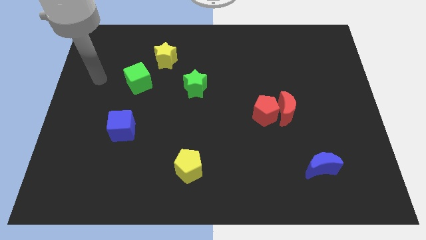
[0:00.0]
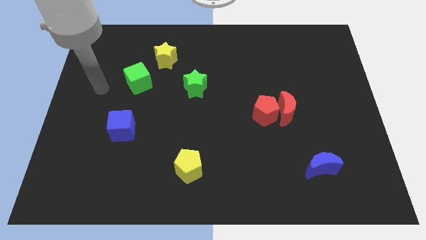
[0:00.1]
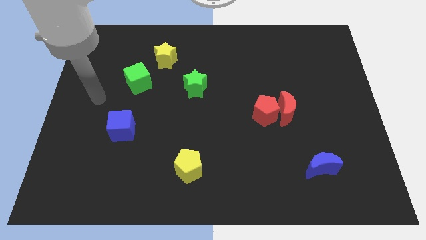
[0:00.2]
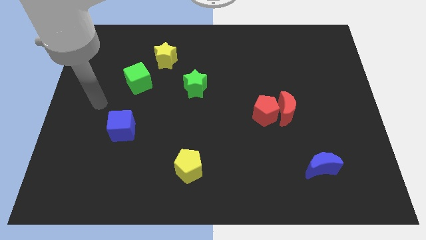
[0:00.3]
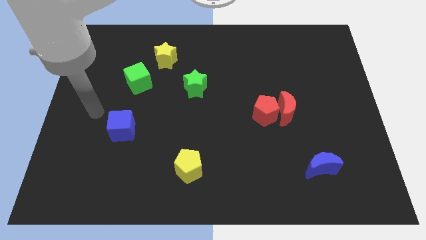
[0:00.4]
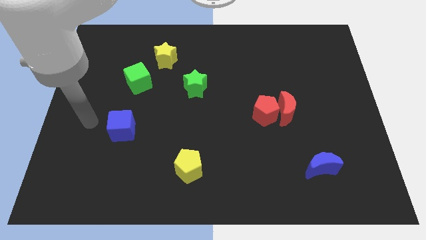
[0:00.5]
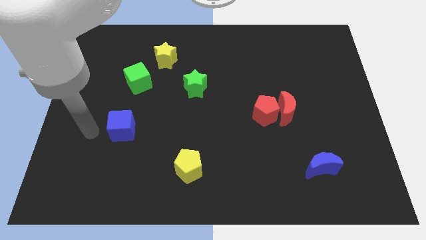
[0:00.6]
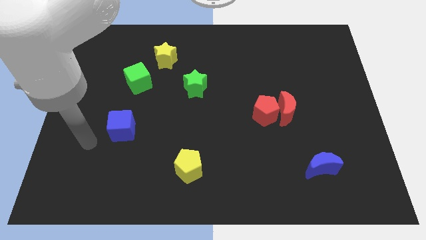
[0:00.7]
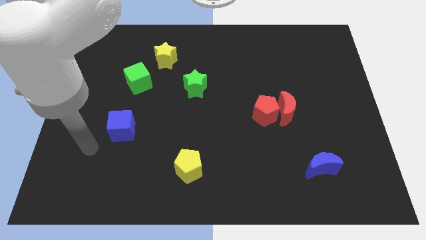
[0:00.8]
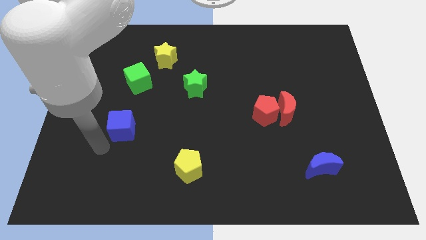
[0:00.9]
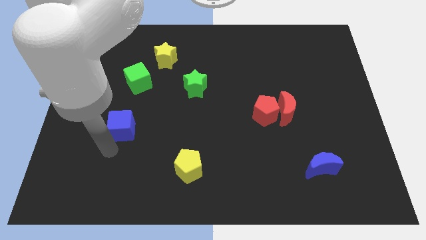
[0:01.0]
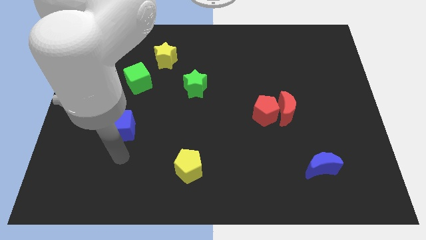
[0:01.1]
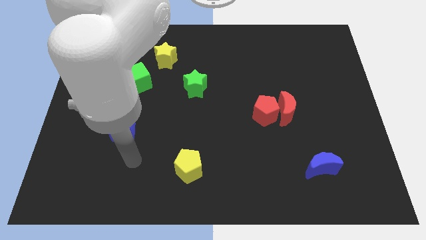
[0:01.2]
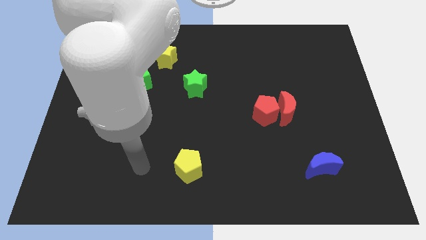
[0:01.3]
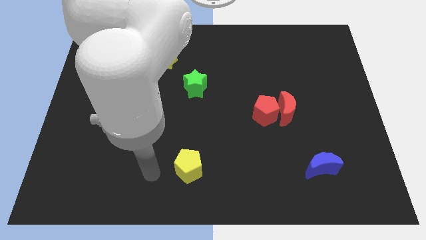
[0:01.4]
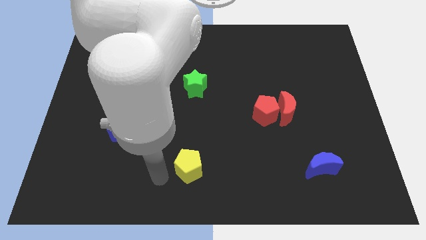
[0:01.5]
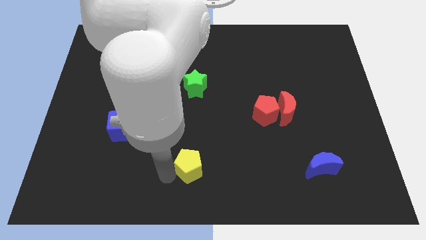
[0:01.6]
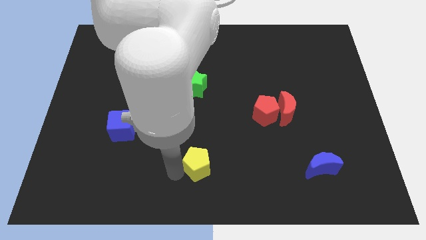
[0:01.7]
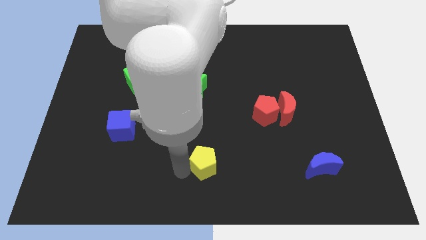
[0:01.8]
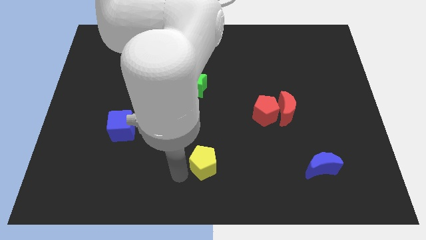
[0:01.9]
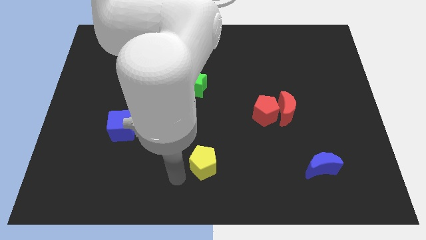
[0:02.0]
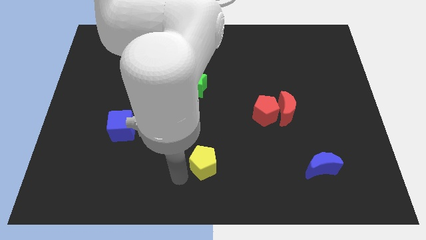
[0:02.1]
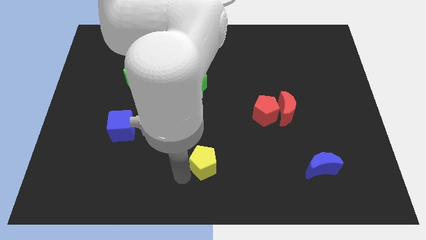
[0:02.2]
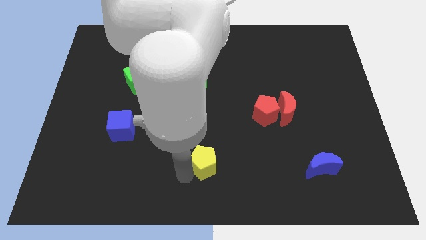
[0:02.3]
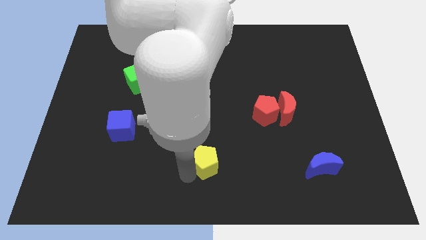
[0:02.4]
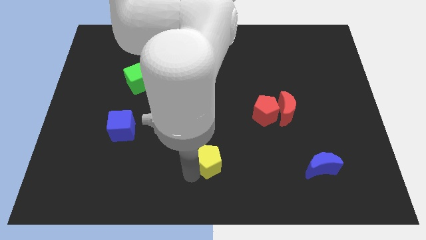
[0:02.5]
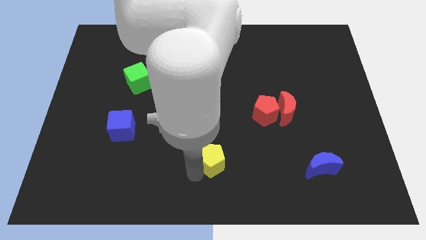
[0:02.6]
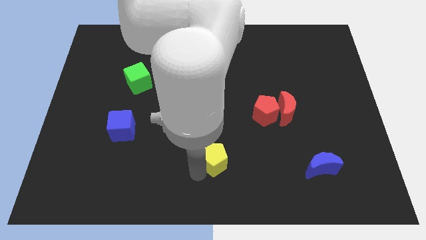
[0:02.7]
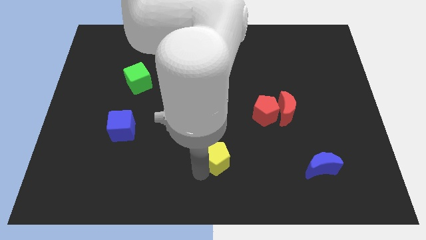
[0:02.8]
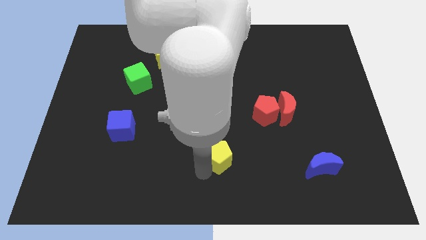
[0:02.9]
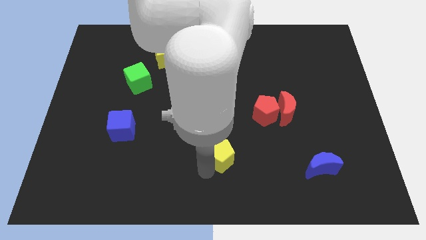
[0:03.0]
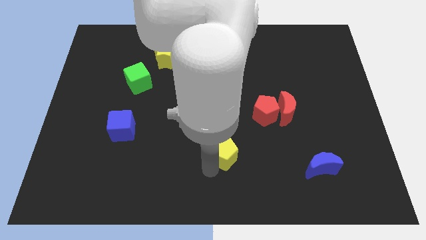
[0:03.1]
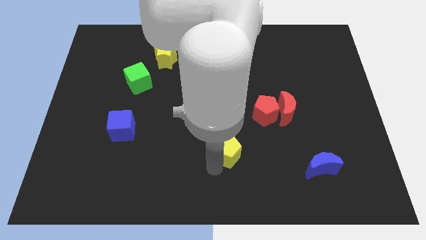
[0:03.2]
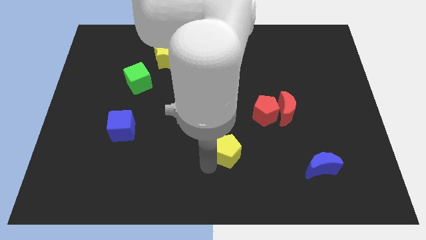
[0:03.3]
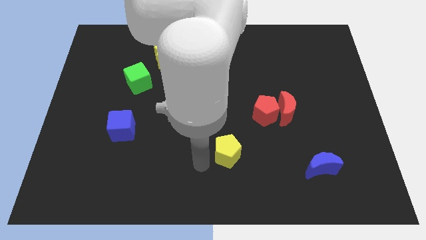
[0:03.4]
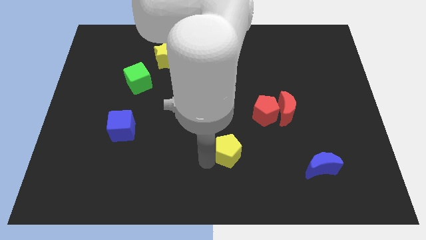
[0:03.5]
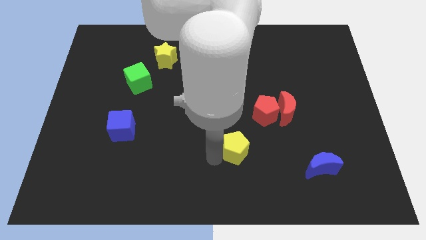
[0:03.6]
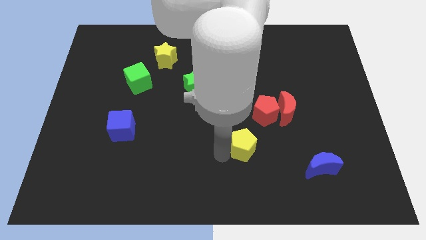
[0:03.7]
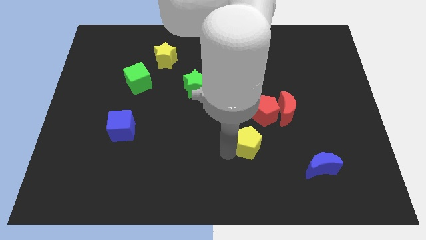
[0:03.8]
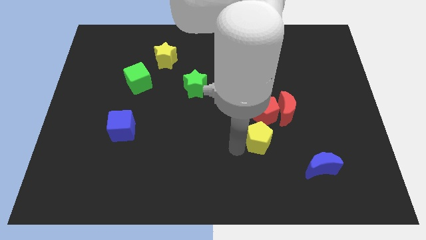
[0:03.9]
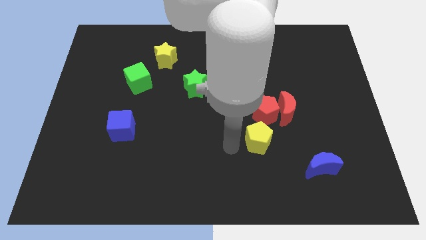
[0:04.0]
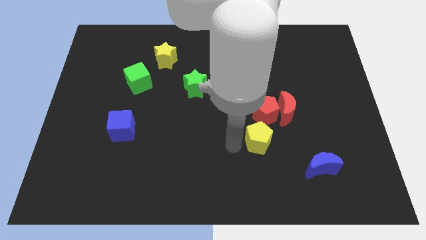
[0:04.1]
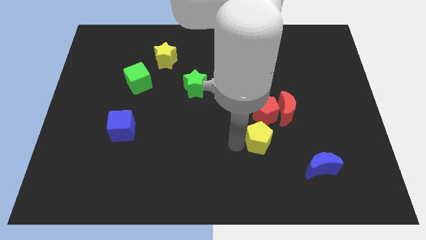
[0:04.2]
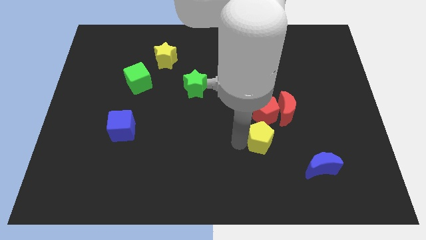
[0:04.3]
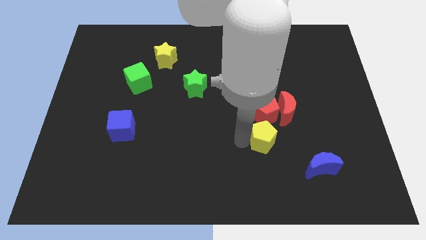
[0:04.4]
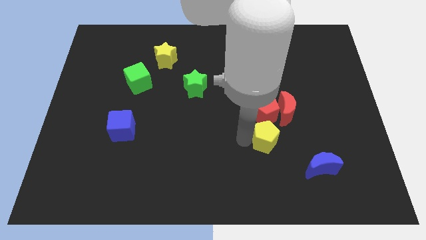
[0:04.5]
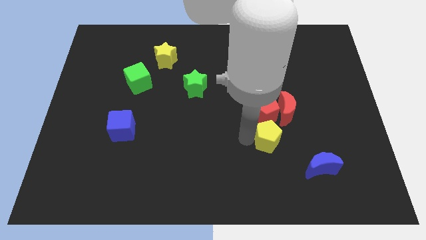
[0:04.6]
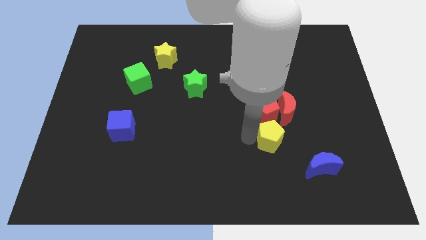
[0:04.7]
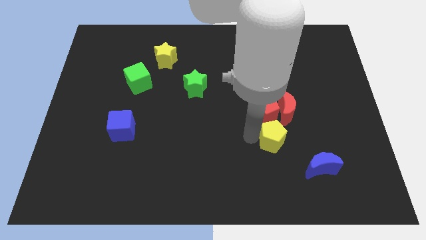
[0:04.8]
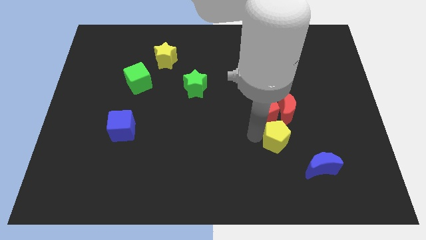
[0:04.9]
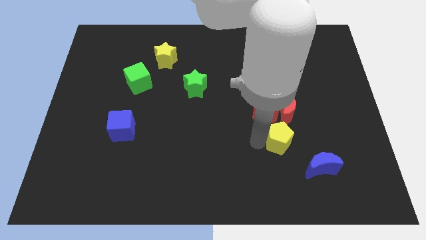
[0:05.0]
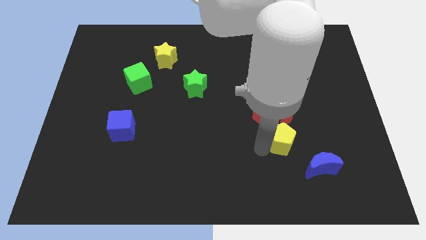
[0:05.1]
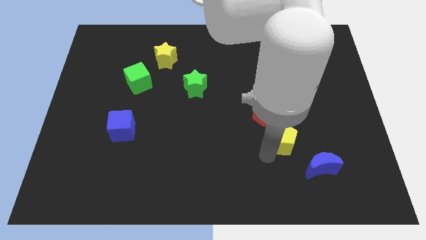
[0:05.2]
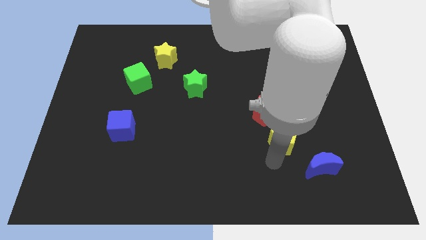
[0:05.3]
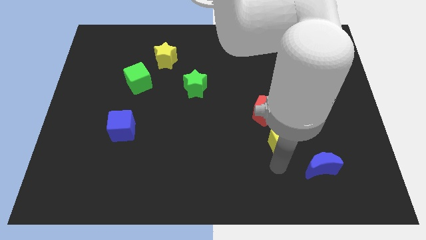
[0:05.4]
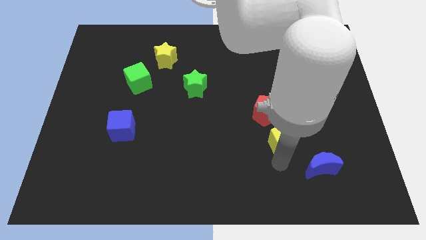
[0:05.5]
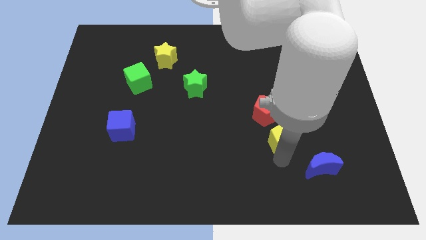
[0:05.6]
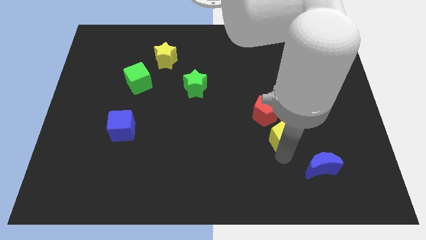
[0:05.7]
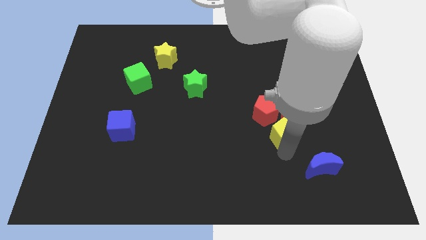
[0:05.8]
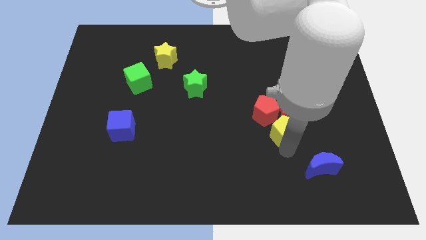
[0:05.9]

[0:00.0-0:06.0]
move the yellow pentagon close to the red moon

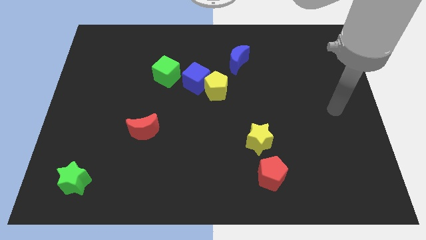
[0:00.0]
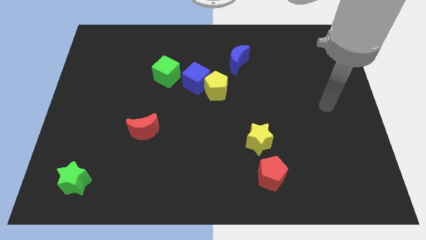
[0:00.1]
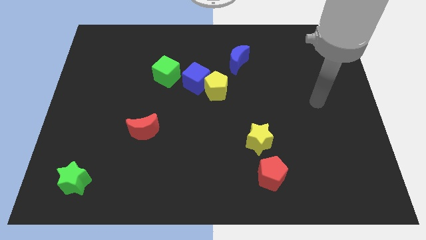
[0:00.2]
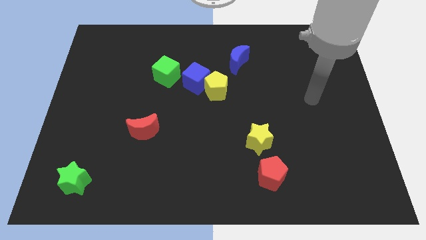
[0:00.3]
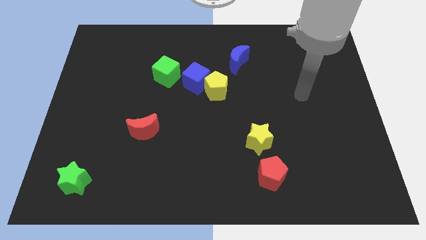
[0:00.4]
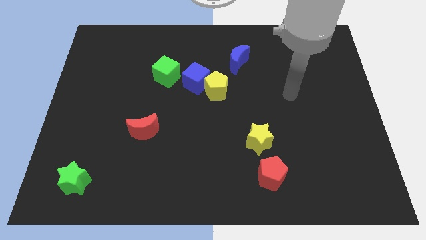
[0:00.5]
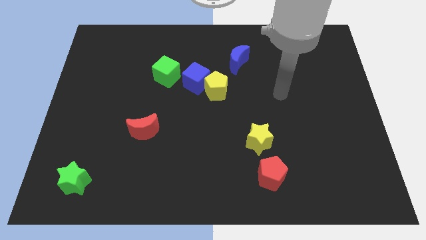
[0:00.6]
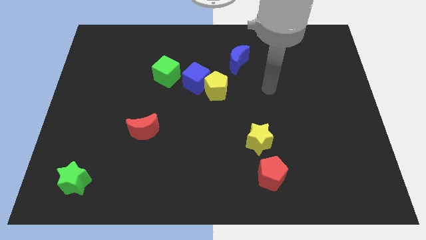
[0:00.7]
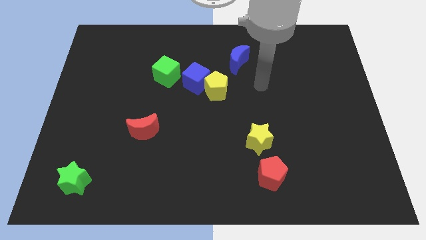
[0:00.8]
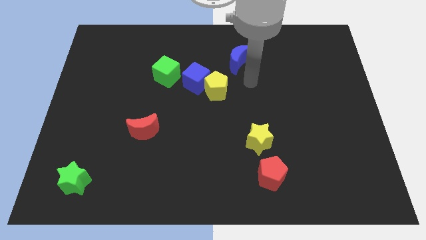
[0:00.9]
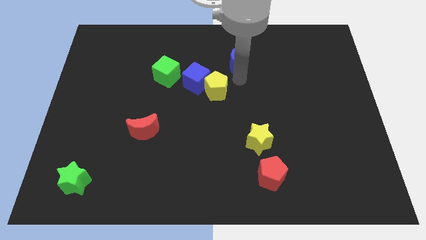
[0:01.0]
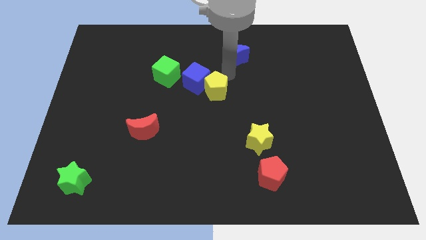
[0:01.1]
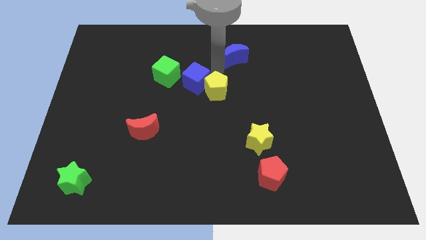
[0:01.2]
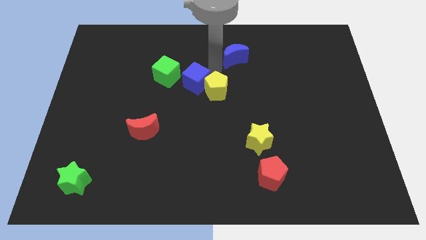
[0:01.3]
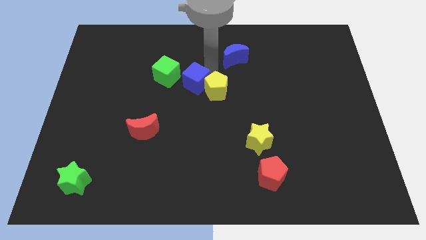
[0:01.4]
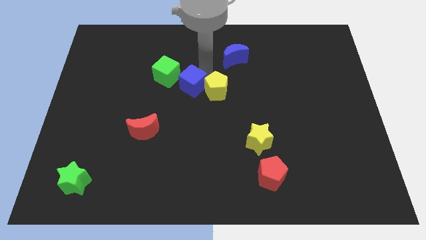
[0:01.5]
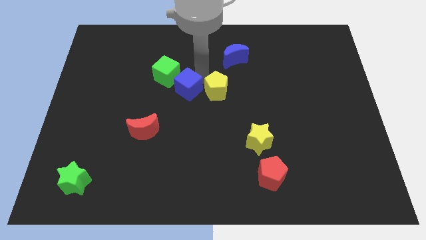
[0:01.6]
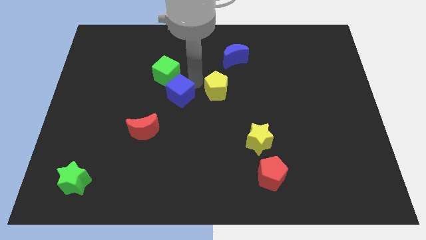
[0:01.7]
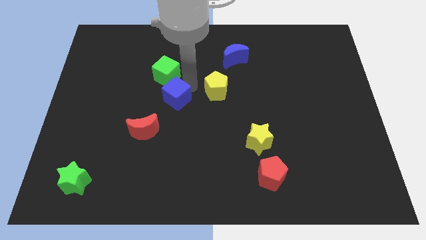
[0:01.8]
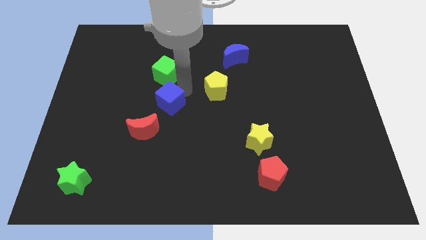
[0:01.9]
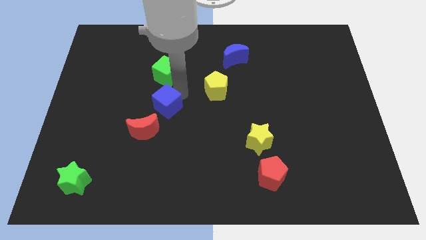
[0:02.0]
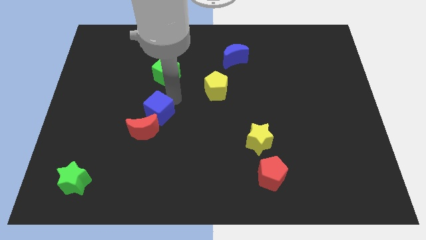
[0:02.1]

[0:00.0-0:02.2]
slide the blue cube next to the red moon
